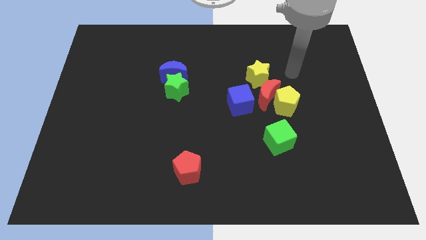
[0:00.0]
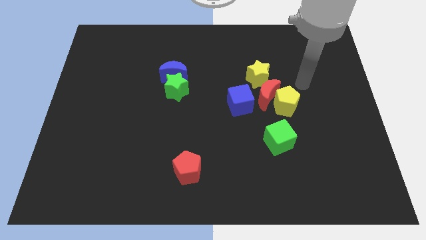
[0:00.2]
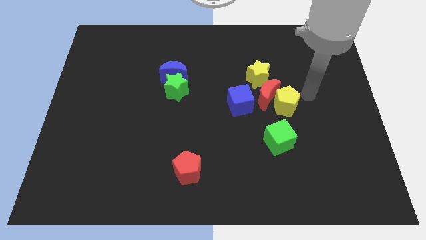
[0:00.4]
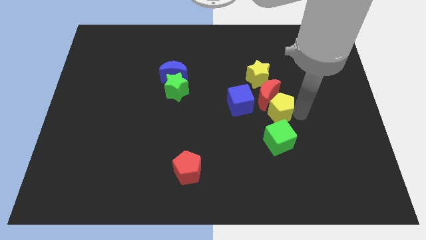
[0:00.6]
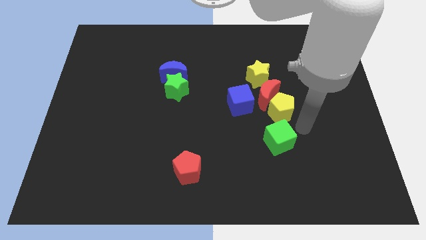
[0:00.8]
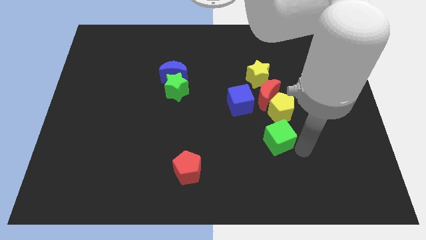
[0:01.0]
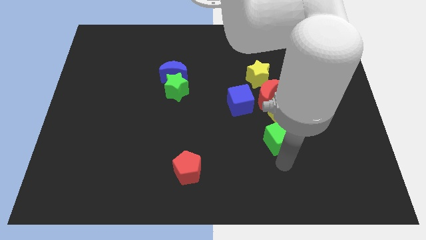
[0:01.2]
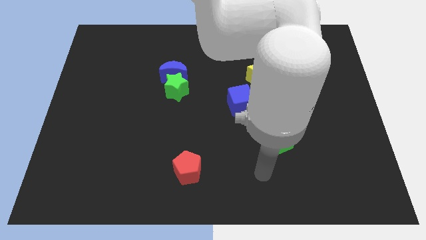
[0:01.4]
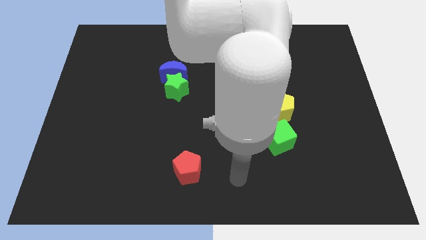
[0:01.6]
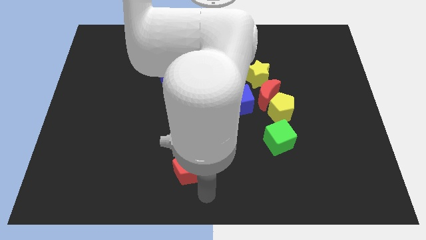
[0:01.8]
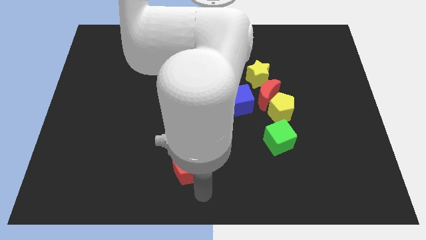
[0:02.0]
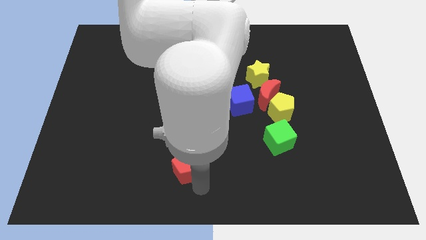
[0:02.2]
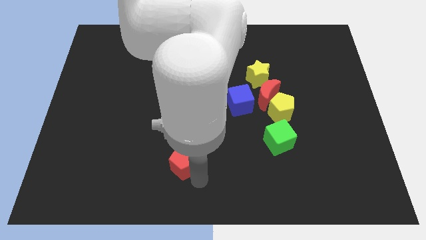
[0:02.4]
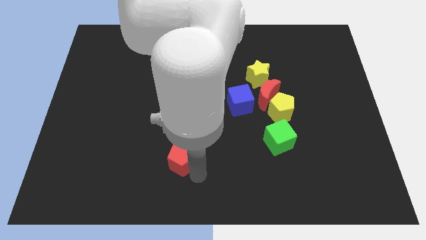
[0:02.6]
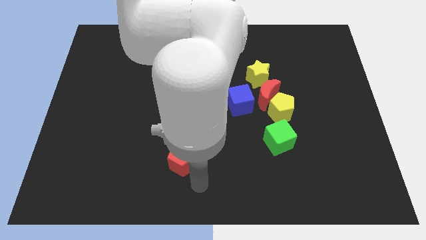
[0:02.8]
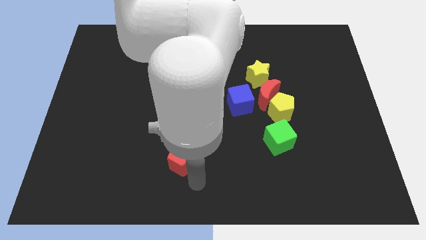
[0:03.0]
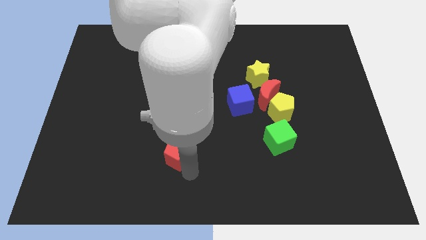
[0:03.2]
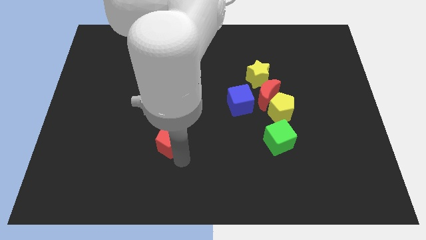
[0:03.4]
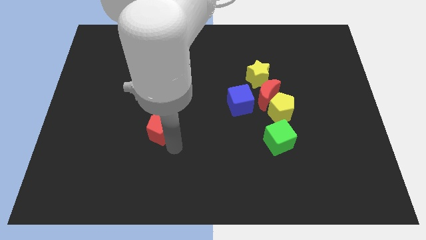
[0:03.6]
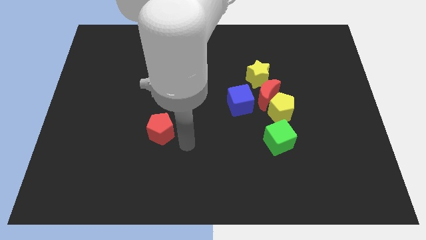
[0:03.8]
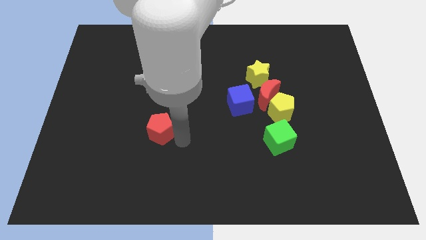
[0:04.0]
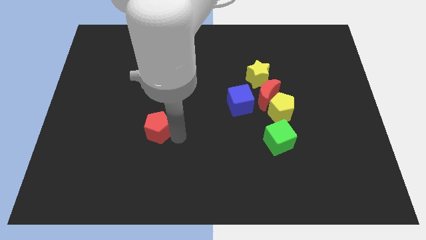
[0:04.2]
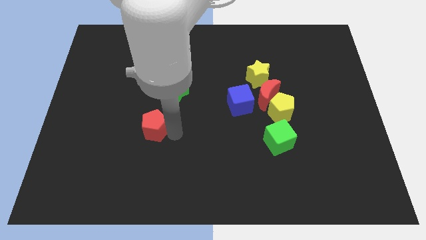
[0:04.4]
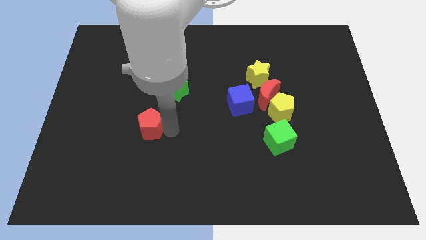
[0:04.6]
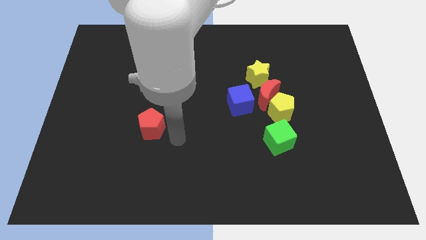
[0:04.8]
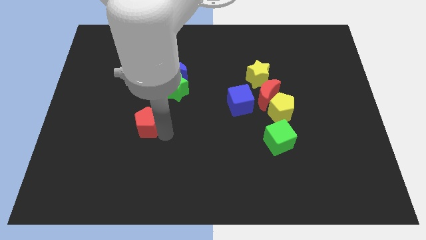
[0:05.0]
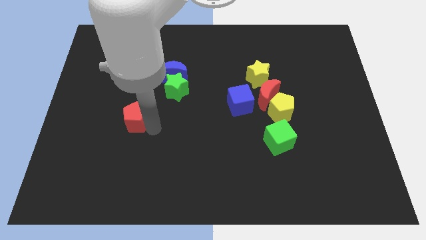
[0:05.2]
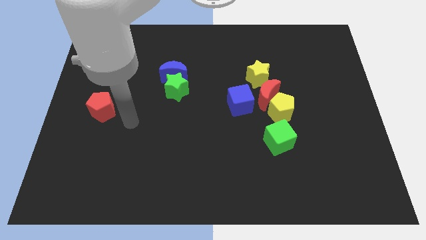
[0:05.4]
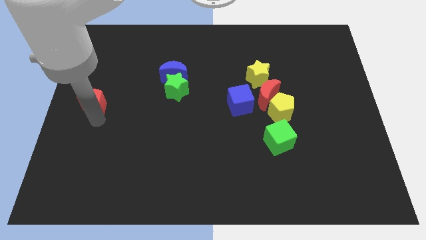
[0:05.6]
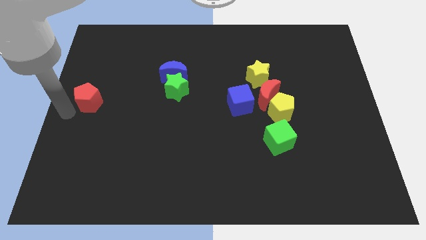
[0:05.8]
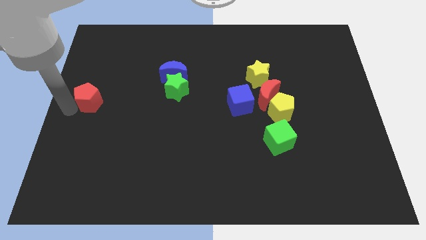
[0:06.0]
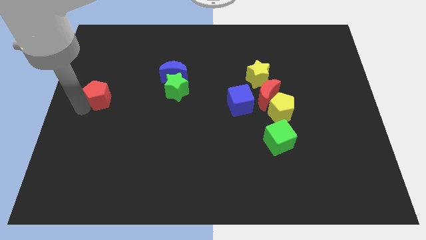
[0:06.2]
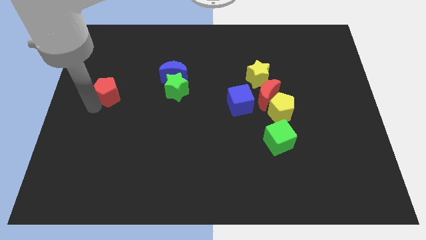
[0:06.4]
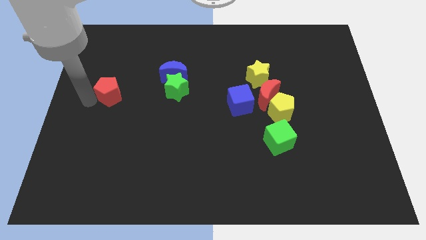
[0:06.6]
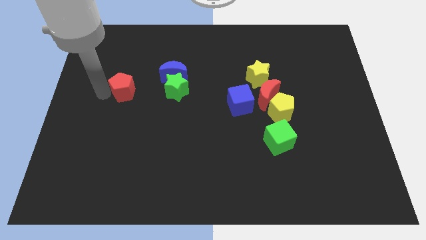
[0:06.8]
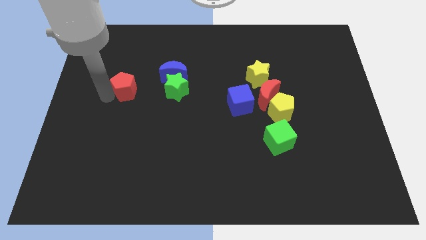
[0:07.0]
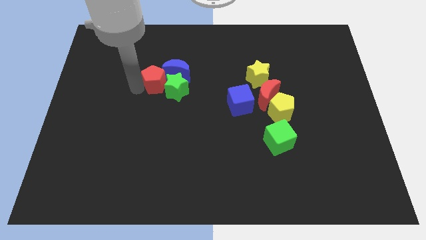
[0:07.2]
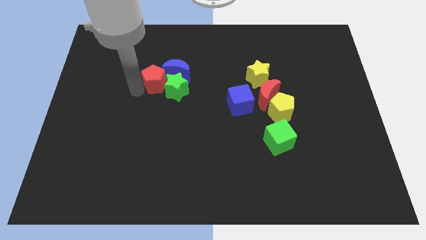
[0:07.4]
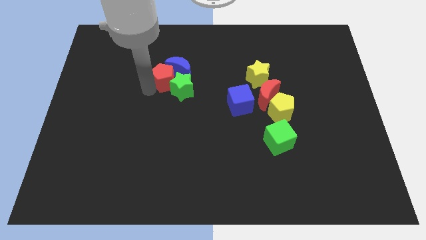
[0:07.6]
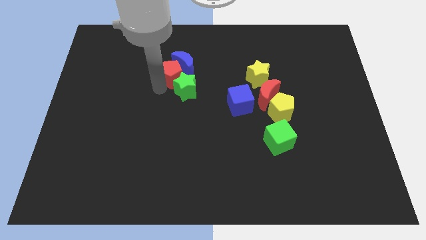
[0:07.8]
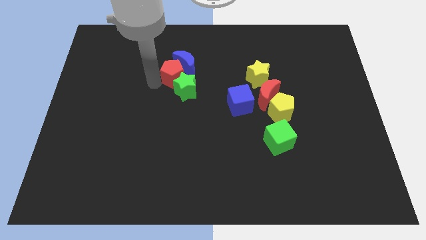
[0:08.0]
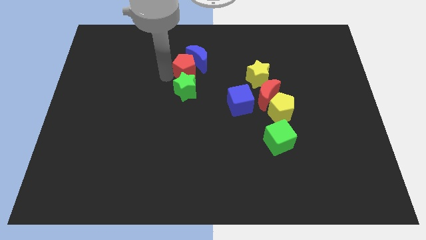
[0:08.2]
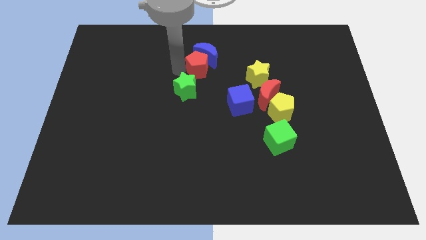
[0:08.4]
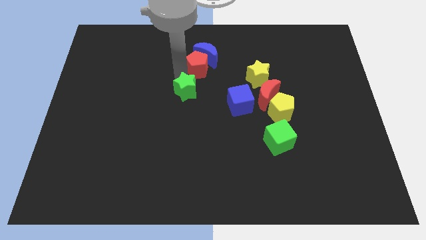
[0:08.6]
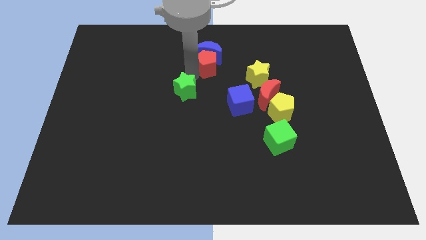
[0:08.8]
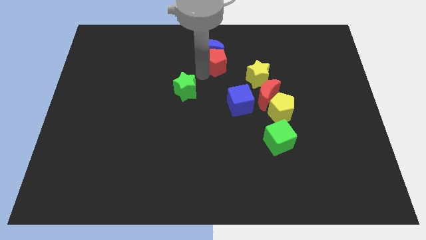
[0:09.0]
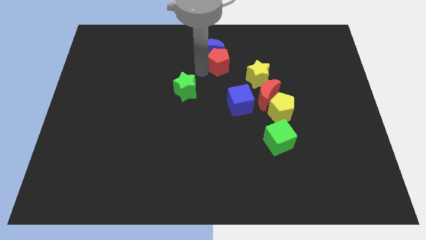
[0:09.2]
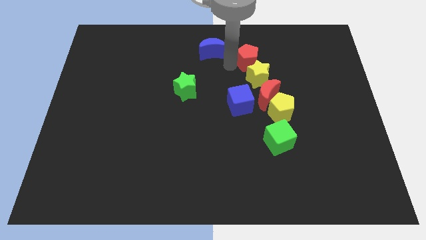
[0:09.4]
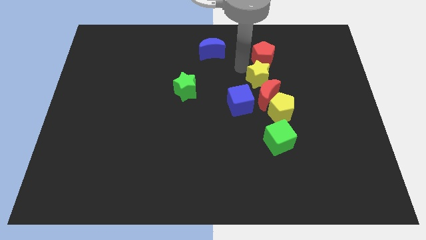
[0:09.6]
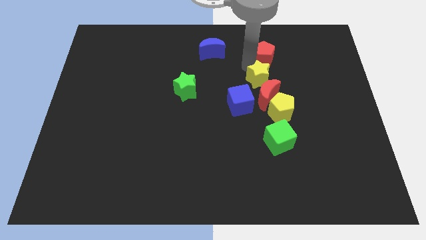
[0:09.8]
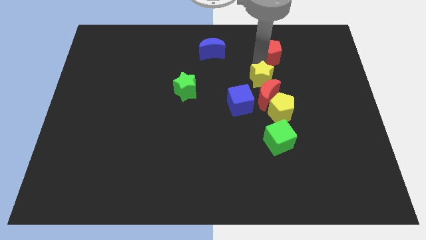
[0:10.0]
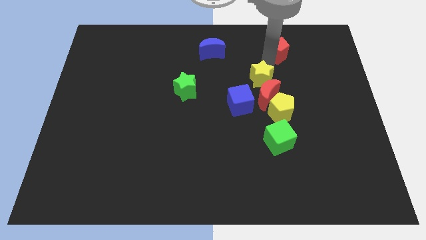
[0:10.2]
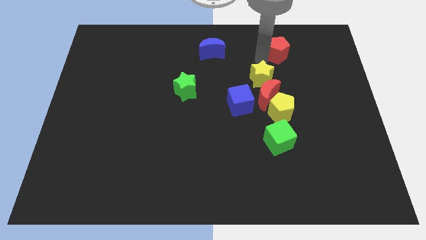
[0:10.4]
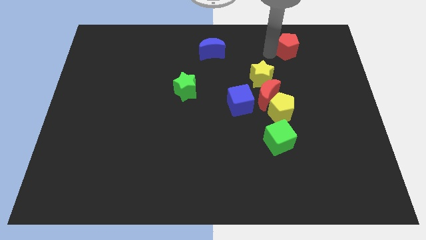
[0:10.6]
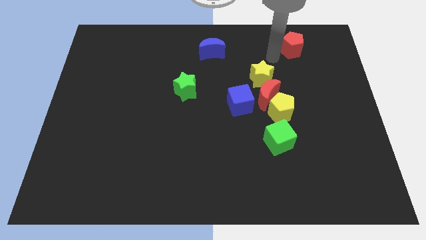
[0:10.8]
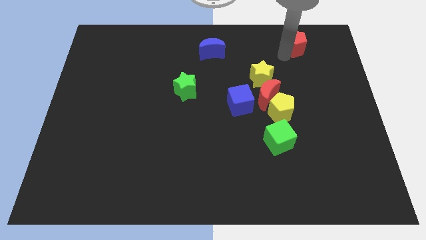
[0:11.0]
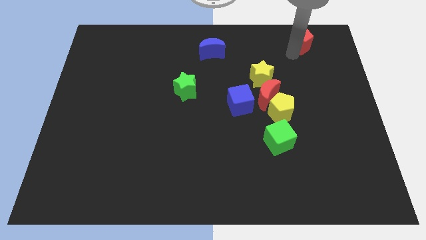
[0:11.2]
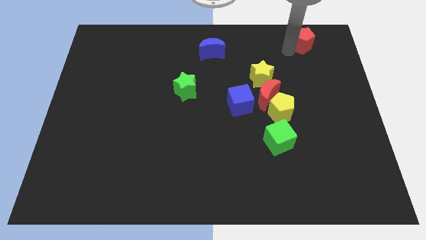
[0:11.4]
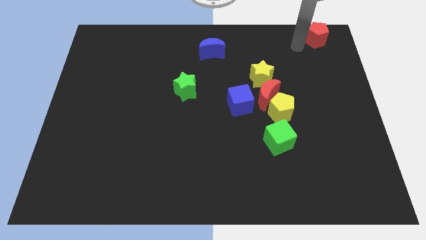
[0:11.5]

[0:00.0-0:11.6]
put the red pentagon to the top right
